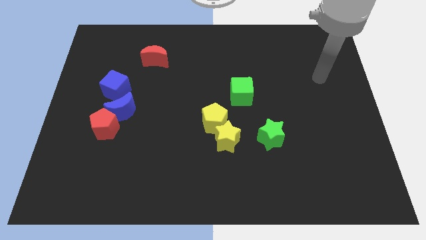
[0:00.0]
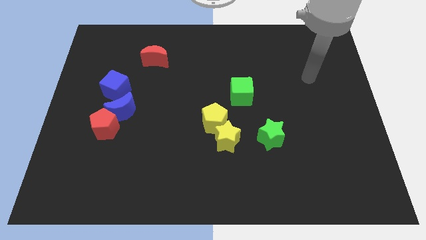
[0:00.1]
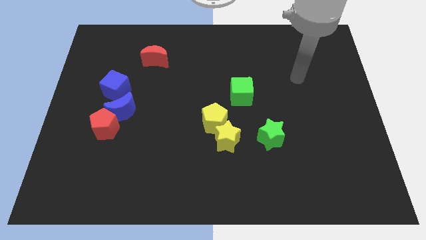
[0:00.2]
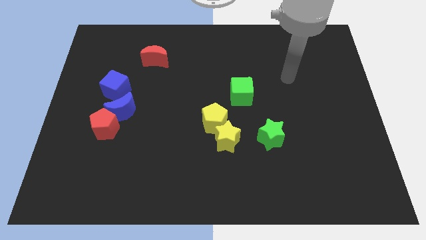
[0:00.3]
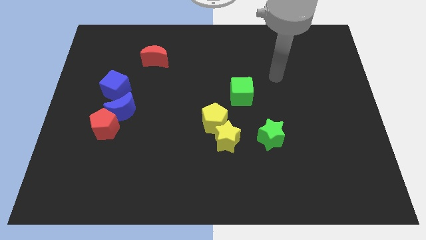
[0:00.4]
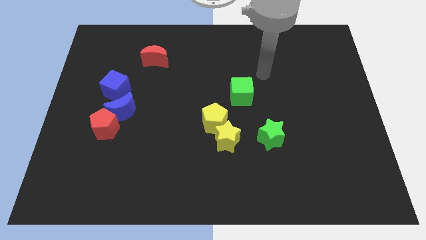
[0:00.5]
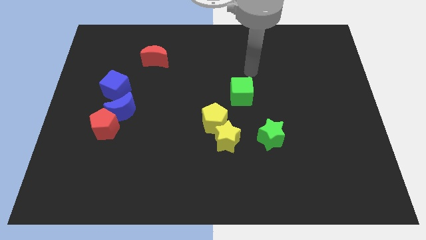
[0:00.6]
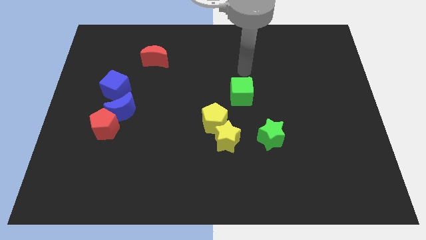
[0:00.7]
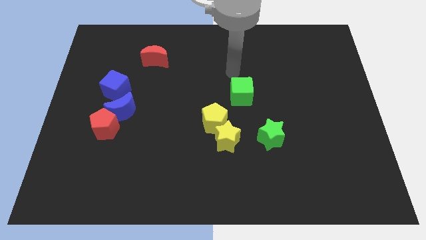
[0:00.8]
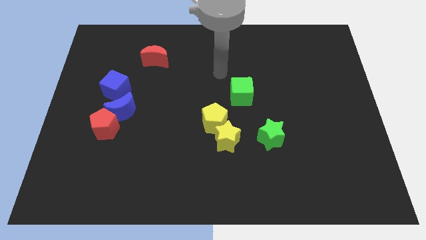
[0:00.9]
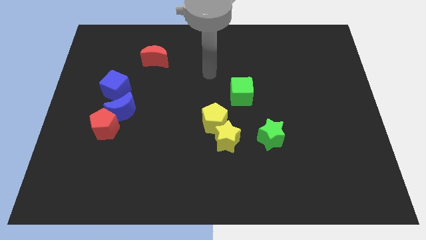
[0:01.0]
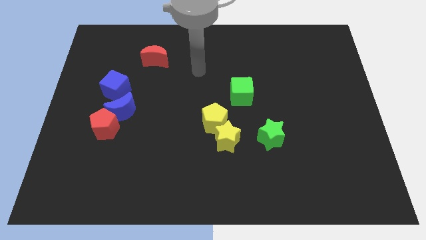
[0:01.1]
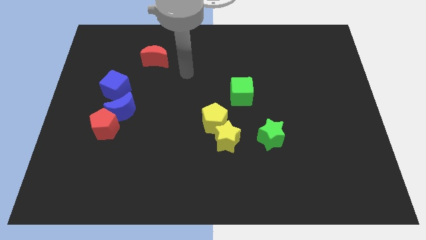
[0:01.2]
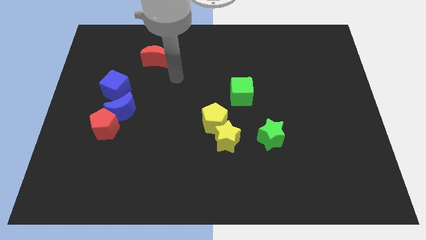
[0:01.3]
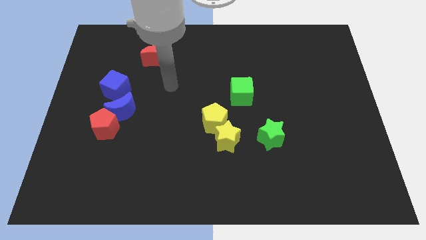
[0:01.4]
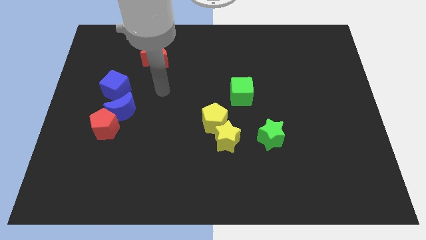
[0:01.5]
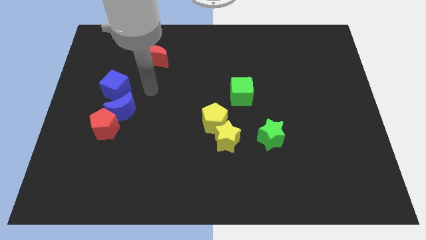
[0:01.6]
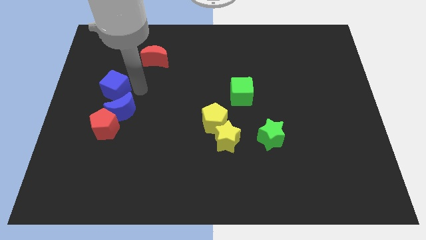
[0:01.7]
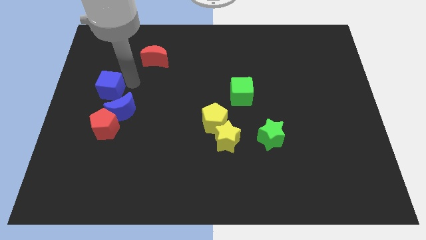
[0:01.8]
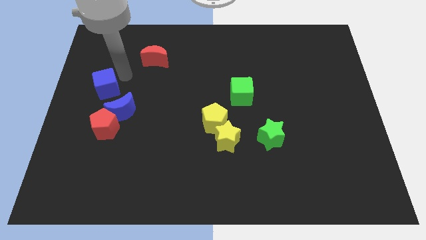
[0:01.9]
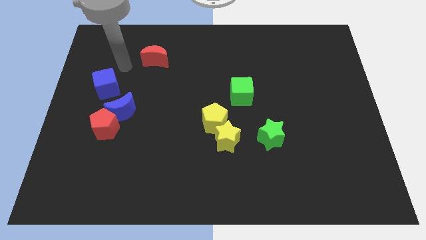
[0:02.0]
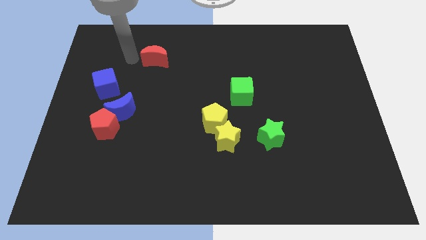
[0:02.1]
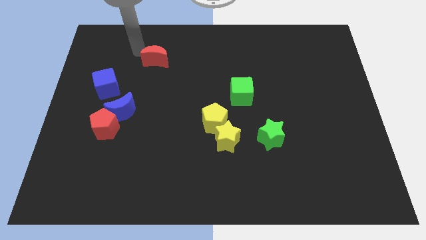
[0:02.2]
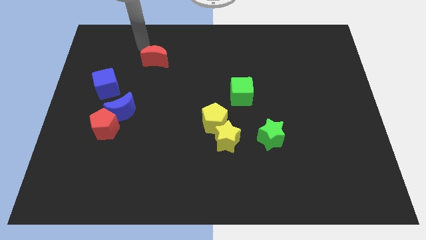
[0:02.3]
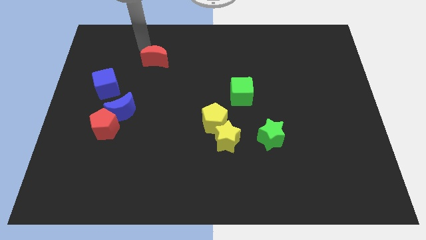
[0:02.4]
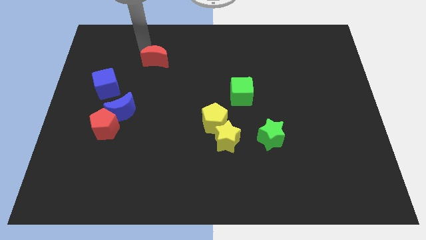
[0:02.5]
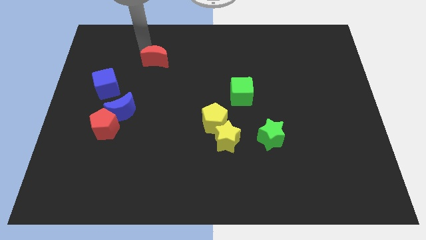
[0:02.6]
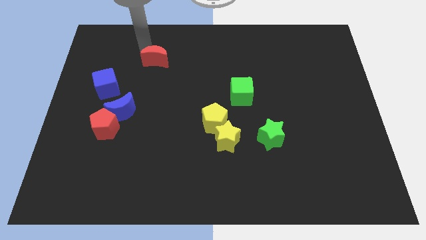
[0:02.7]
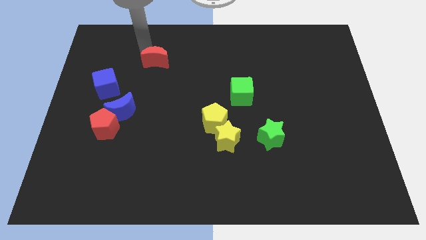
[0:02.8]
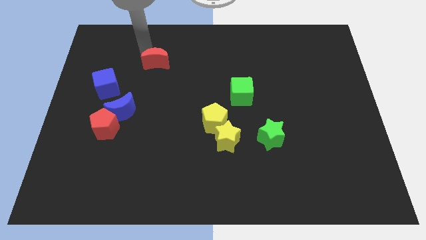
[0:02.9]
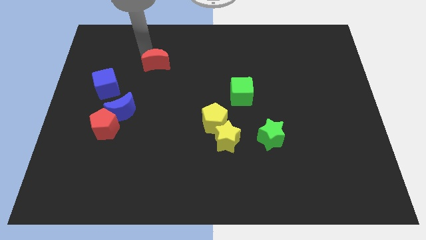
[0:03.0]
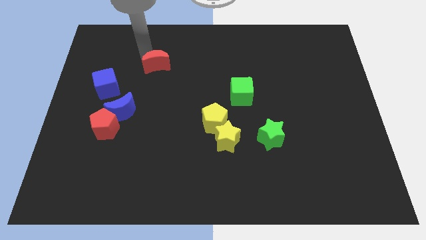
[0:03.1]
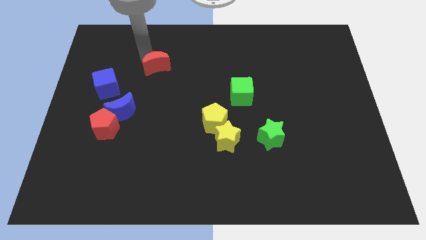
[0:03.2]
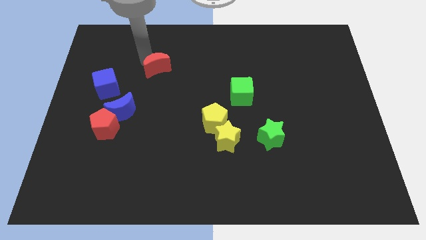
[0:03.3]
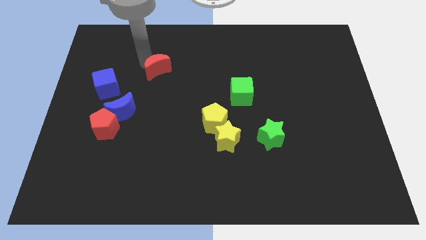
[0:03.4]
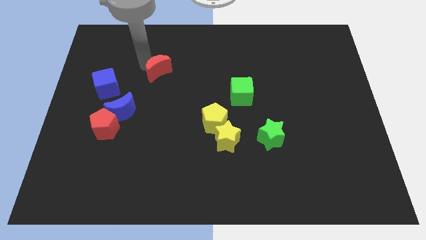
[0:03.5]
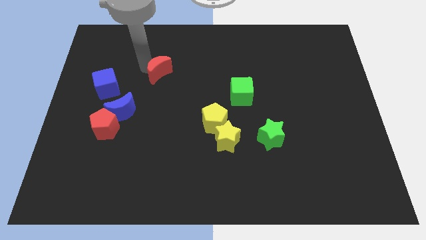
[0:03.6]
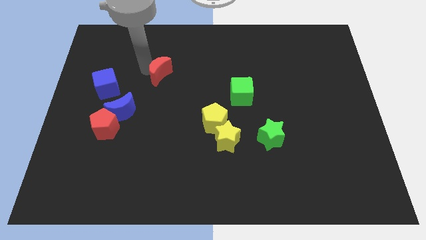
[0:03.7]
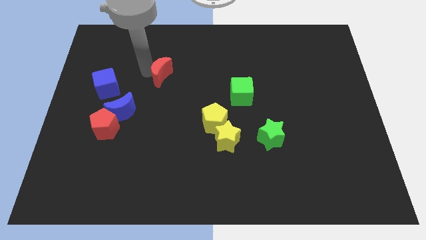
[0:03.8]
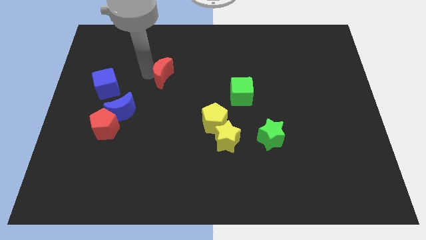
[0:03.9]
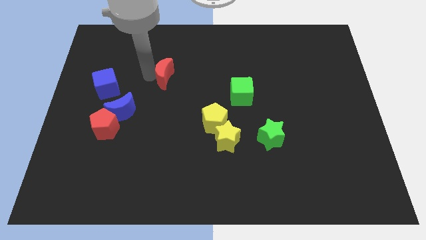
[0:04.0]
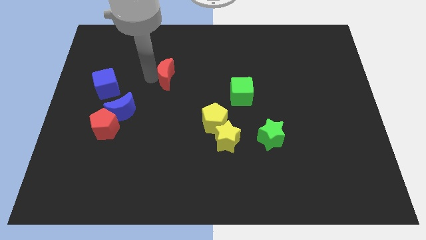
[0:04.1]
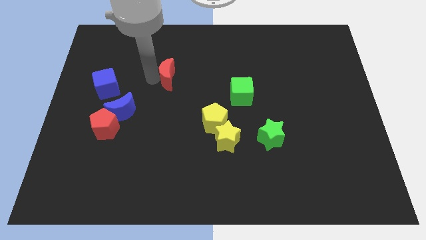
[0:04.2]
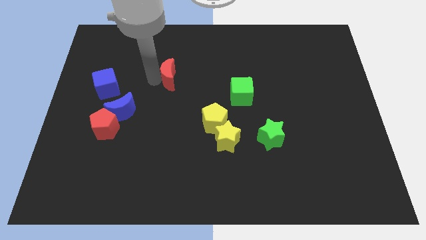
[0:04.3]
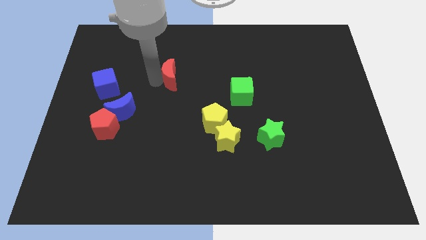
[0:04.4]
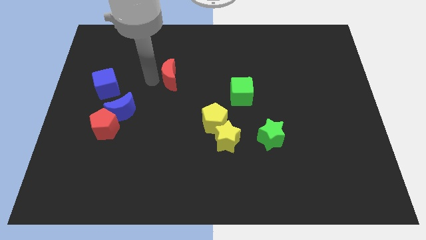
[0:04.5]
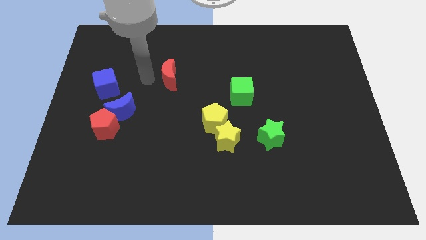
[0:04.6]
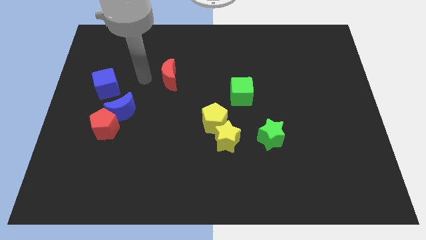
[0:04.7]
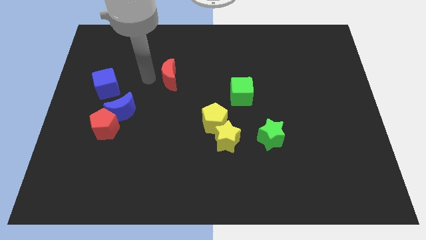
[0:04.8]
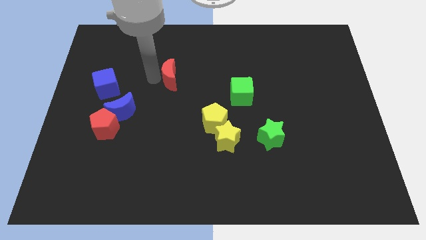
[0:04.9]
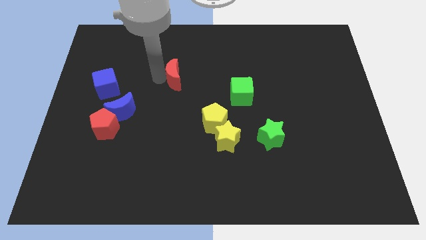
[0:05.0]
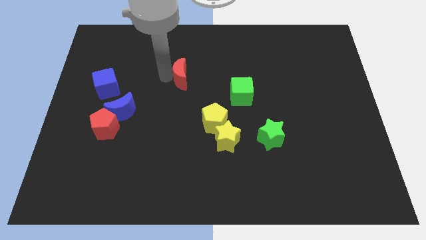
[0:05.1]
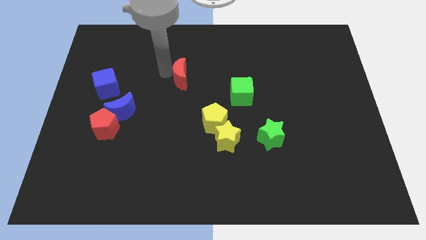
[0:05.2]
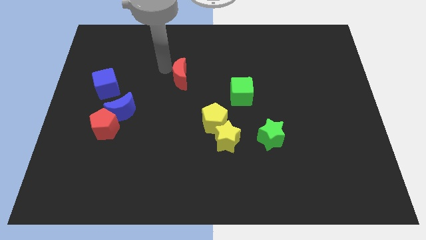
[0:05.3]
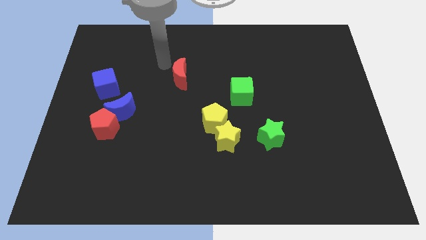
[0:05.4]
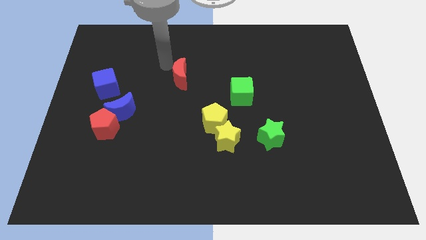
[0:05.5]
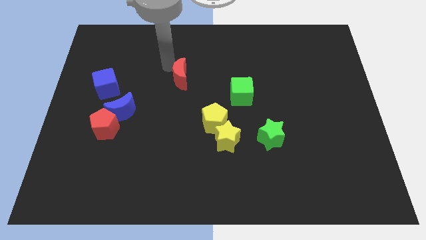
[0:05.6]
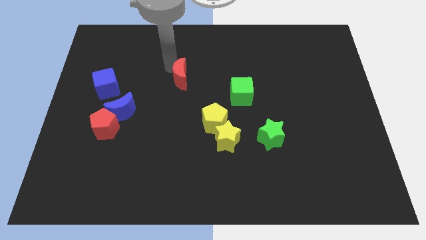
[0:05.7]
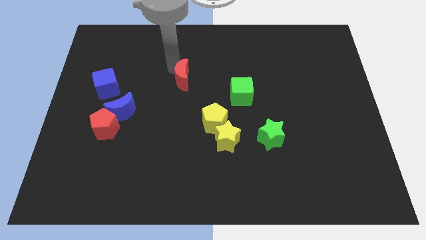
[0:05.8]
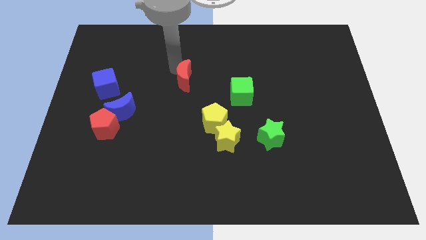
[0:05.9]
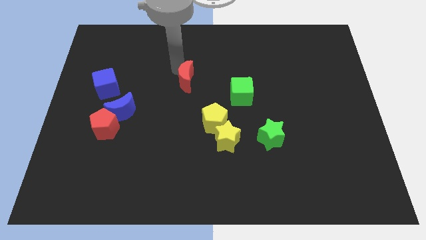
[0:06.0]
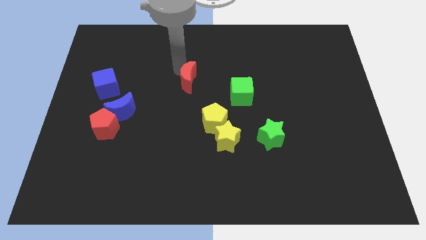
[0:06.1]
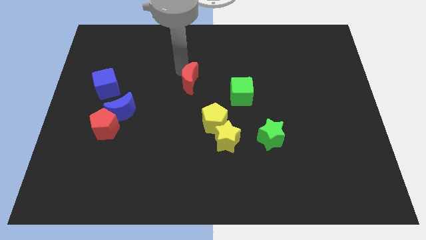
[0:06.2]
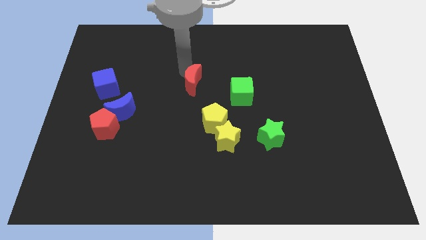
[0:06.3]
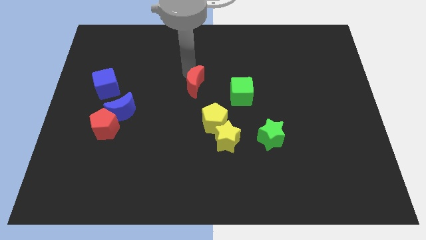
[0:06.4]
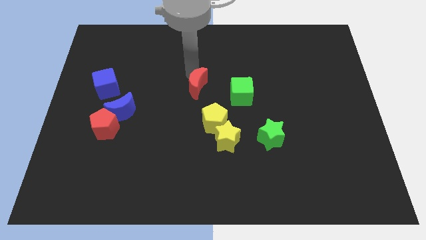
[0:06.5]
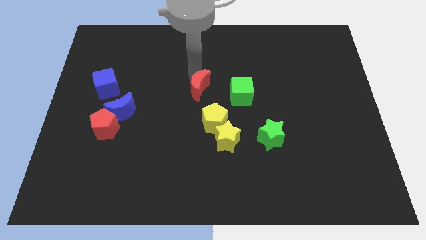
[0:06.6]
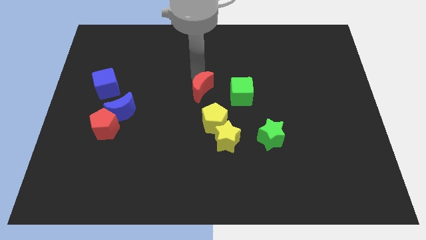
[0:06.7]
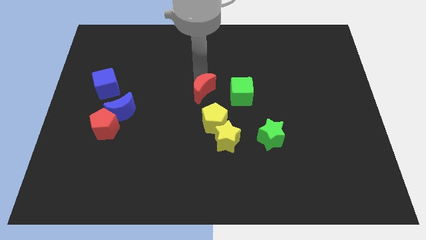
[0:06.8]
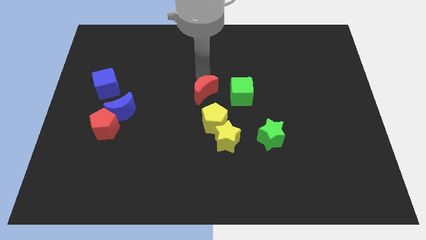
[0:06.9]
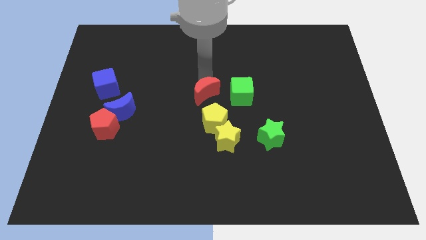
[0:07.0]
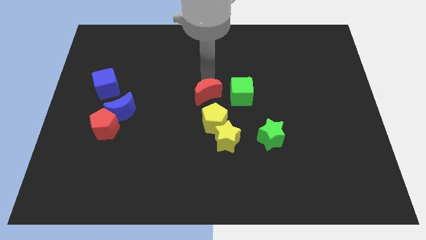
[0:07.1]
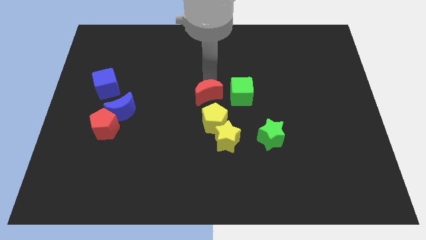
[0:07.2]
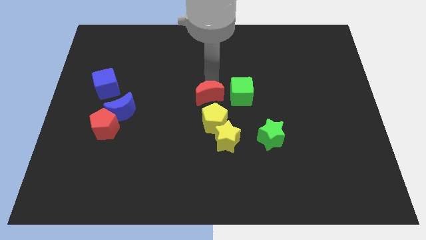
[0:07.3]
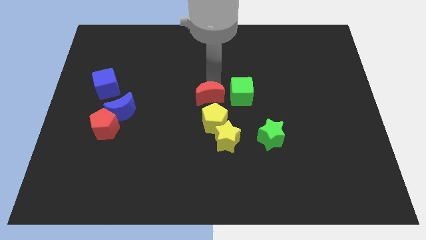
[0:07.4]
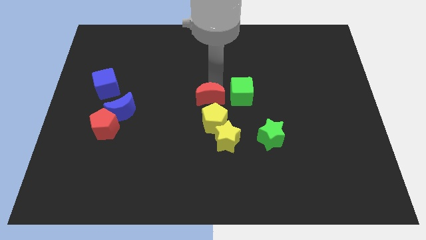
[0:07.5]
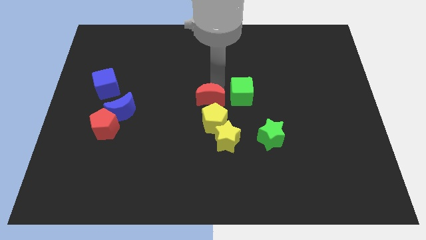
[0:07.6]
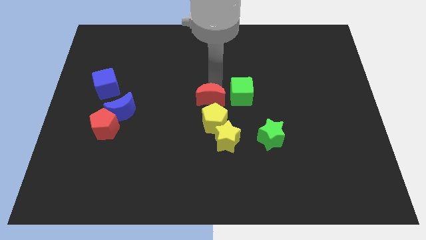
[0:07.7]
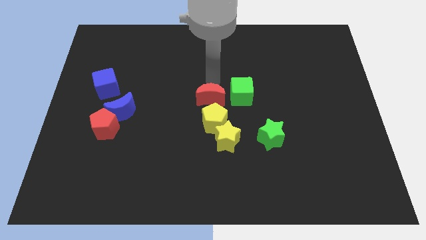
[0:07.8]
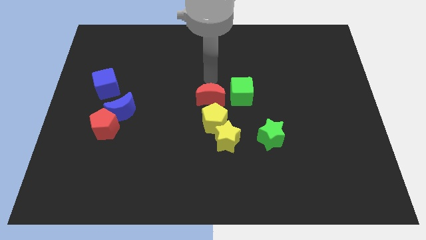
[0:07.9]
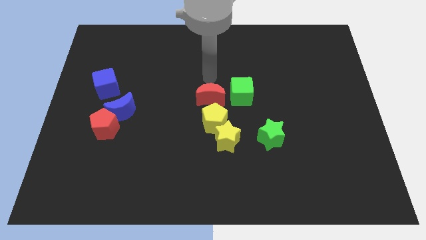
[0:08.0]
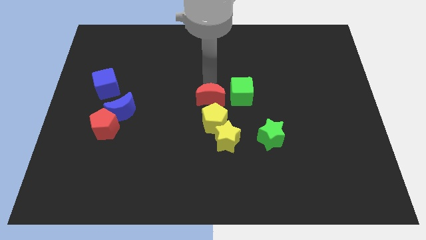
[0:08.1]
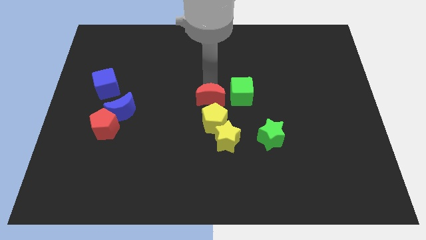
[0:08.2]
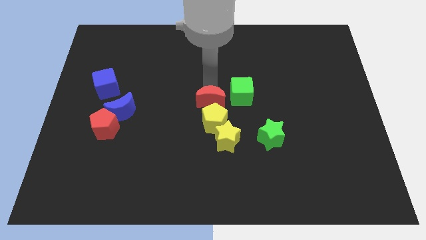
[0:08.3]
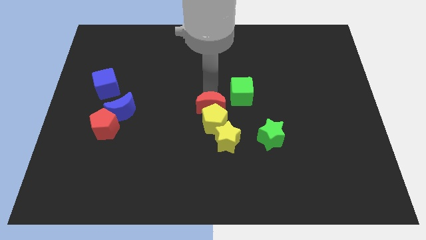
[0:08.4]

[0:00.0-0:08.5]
put the red moon to the yellow pentagon
